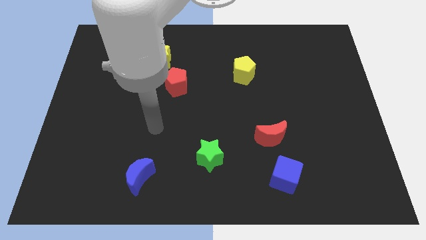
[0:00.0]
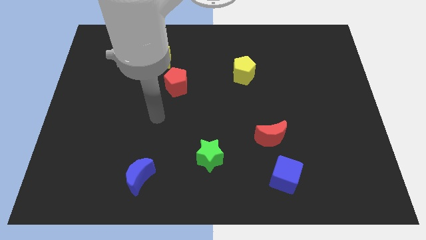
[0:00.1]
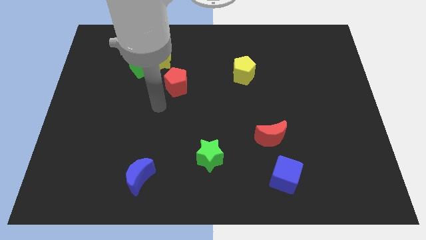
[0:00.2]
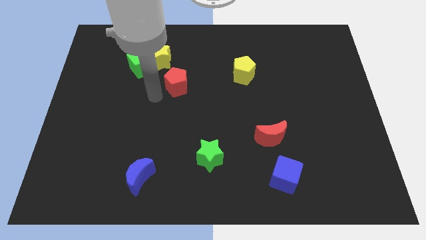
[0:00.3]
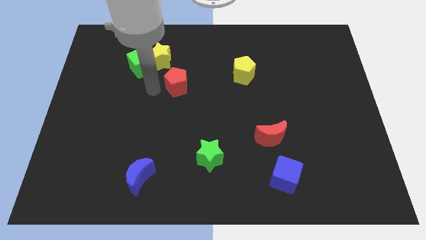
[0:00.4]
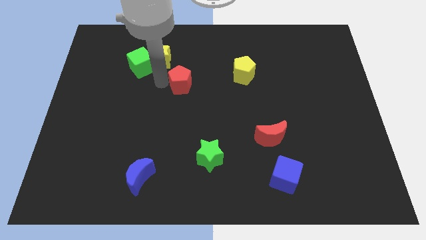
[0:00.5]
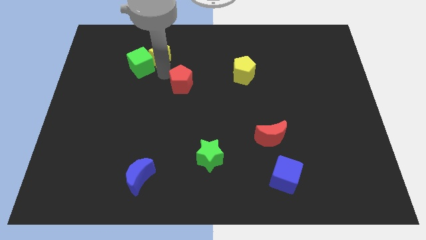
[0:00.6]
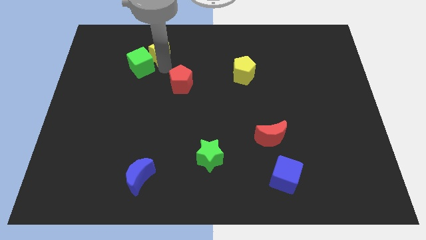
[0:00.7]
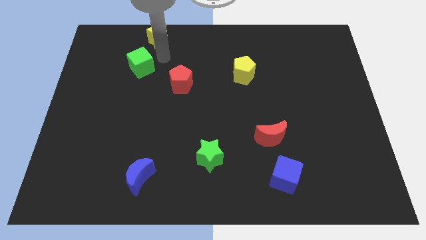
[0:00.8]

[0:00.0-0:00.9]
pull the green cube apart from the yellow star

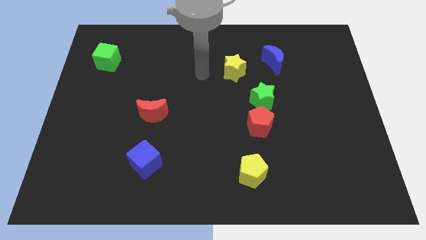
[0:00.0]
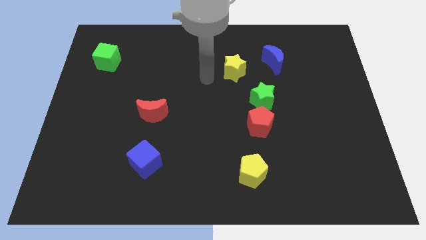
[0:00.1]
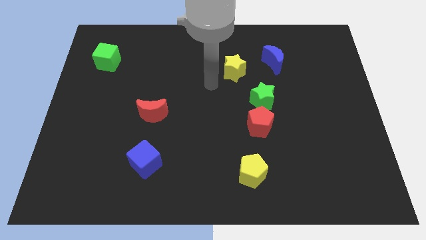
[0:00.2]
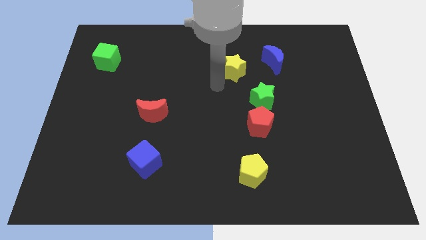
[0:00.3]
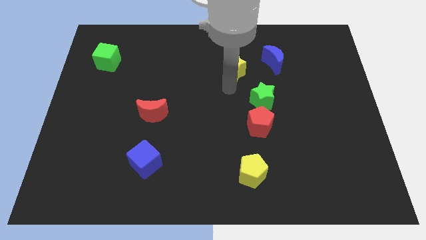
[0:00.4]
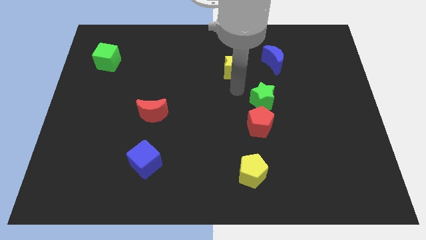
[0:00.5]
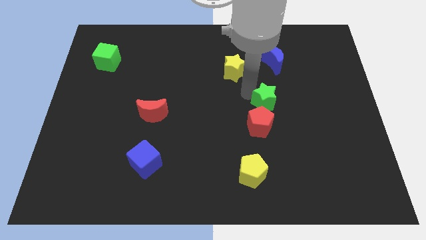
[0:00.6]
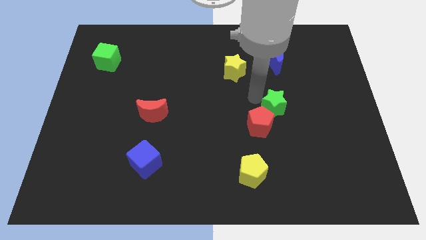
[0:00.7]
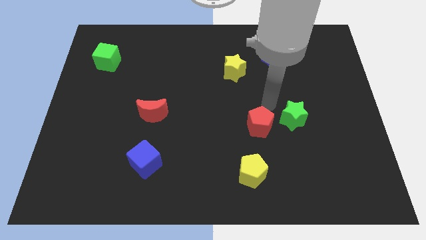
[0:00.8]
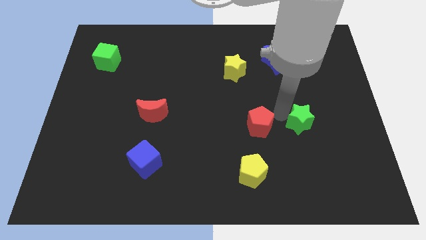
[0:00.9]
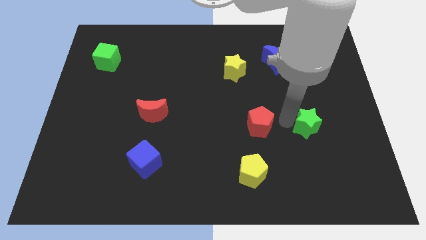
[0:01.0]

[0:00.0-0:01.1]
move the red pentagon away from the green star

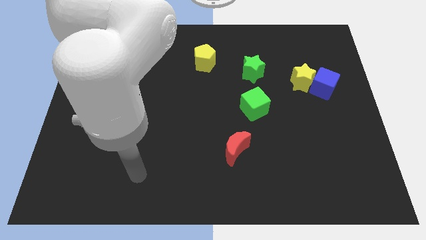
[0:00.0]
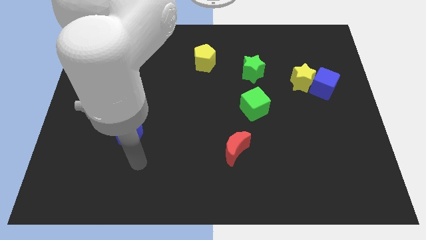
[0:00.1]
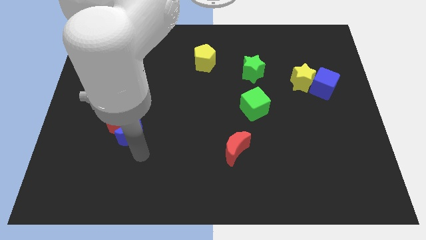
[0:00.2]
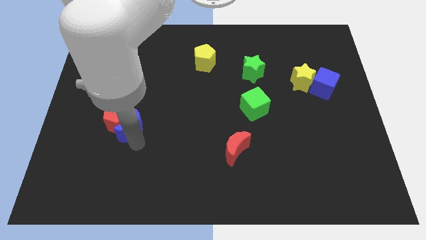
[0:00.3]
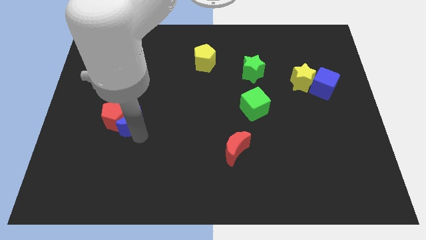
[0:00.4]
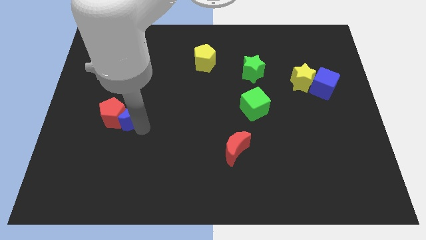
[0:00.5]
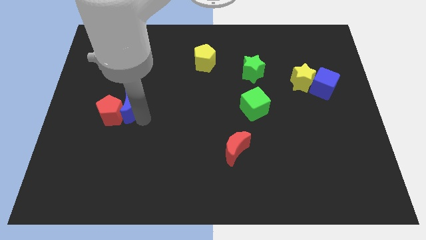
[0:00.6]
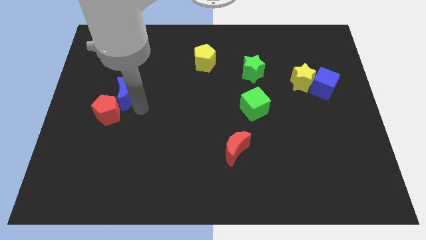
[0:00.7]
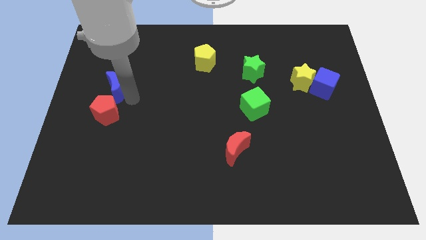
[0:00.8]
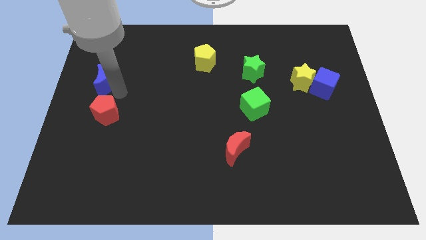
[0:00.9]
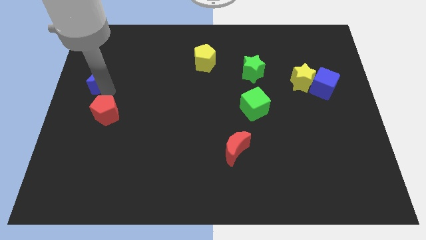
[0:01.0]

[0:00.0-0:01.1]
pull the red pentagon apart from the blue moon

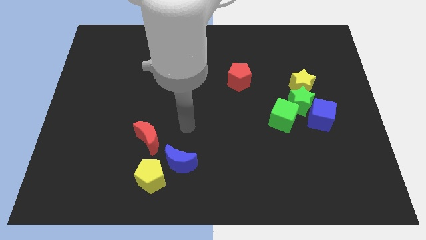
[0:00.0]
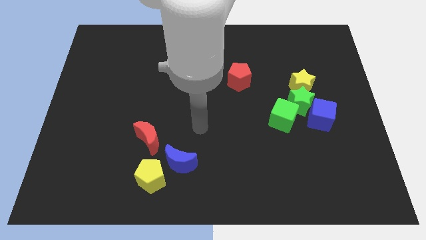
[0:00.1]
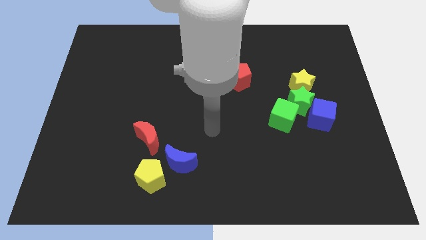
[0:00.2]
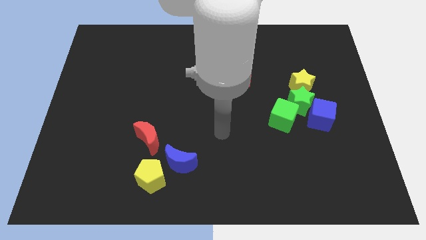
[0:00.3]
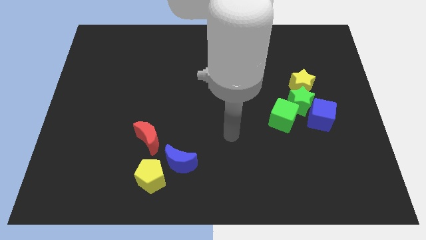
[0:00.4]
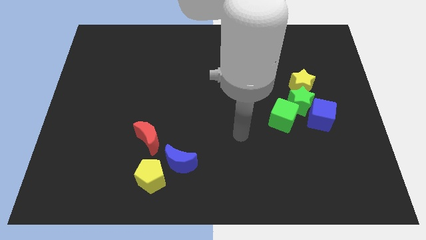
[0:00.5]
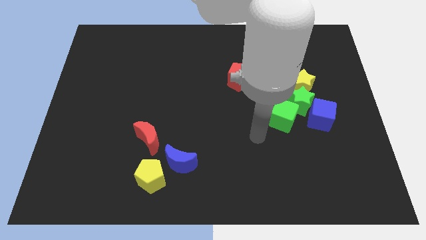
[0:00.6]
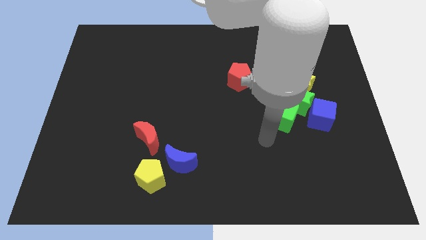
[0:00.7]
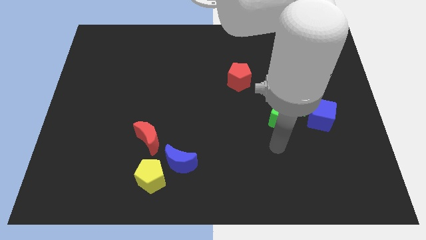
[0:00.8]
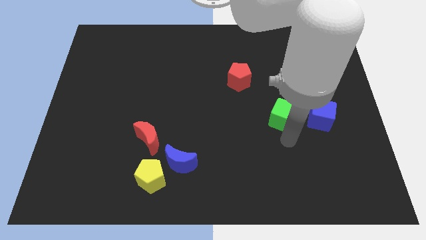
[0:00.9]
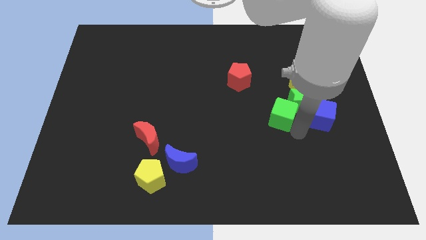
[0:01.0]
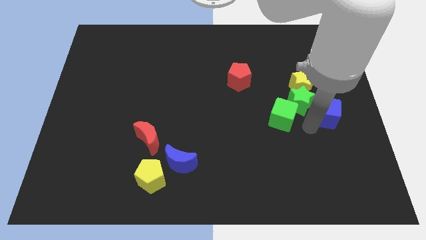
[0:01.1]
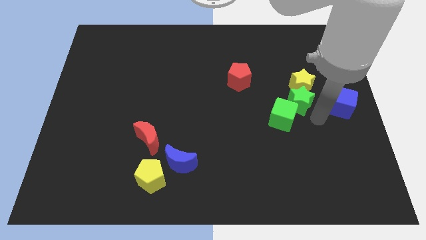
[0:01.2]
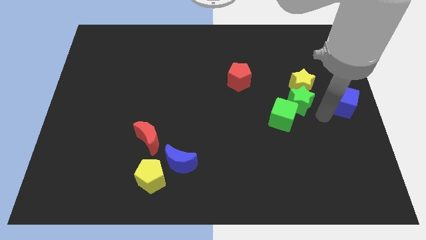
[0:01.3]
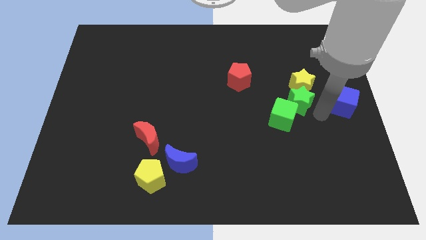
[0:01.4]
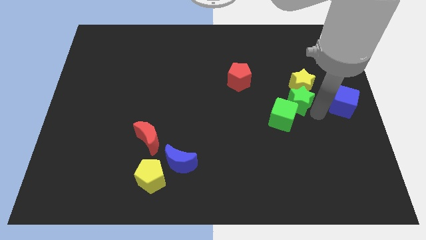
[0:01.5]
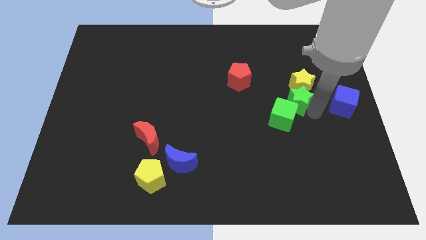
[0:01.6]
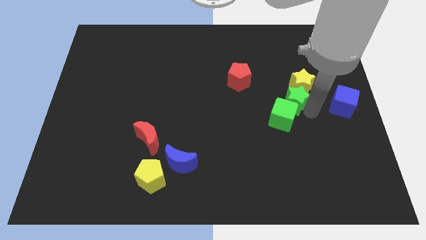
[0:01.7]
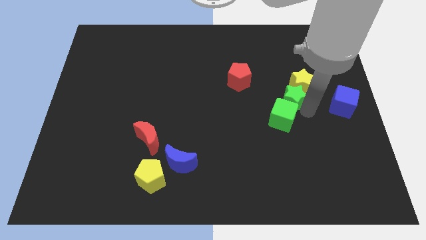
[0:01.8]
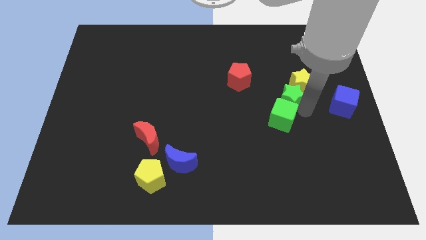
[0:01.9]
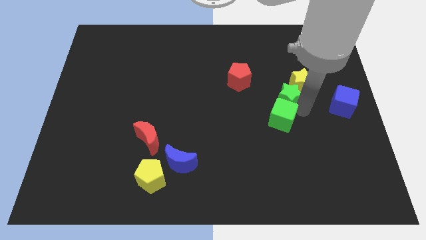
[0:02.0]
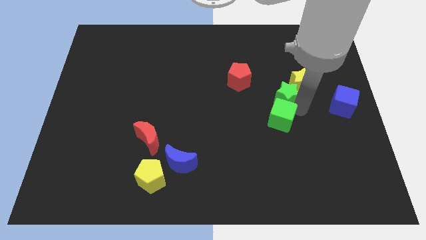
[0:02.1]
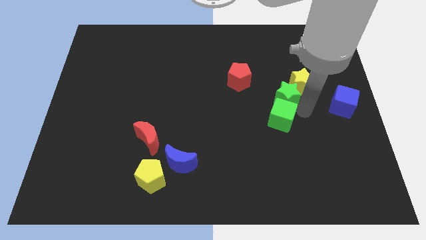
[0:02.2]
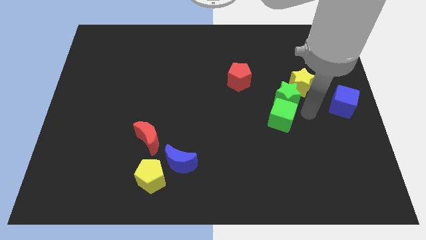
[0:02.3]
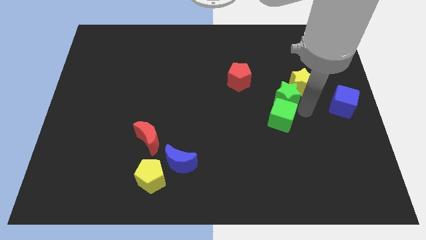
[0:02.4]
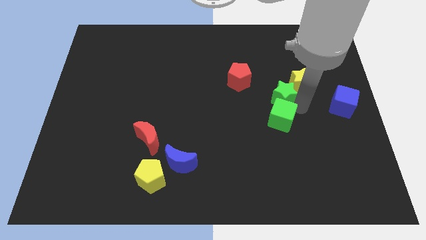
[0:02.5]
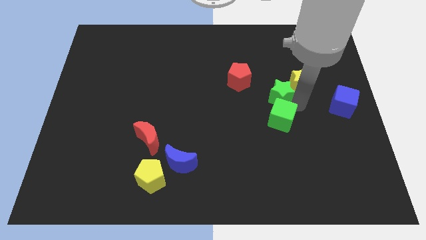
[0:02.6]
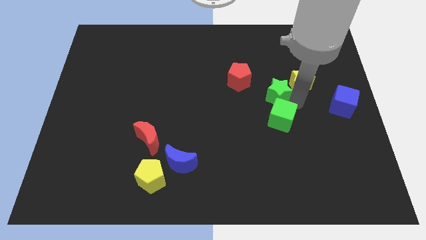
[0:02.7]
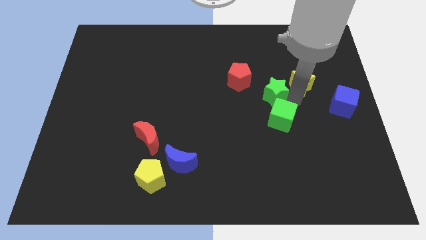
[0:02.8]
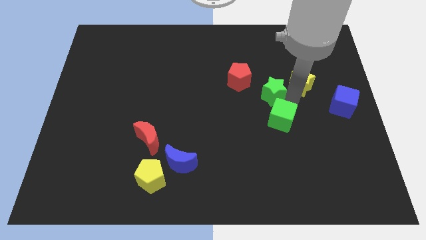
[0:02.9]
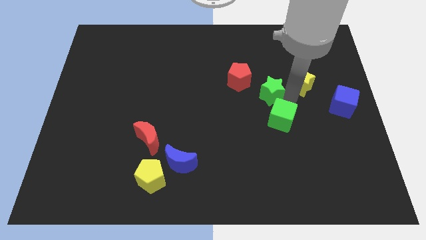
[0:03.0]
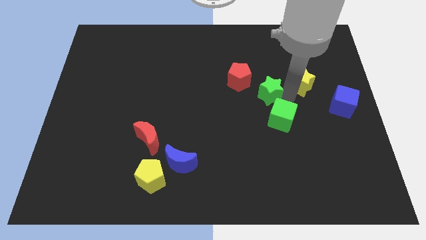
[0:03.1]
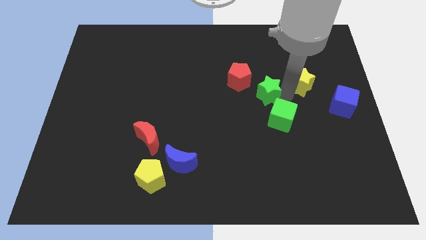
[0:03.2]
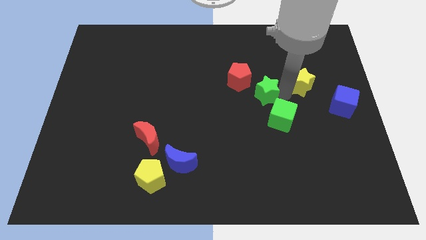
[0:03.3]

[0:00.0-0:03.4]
separate the green star from the yellow star, blue cube, and green cube

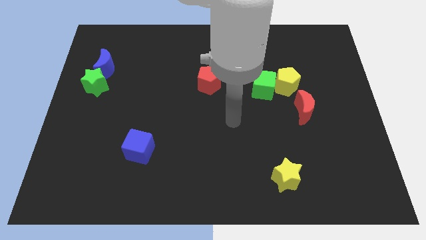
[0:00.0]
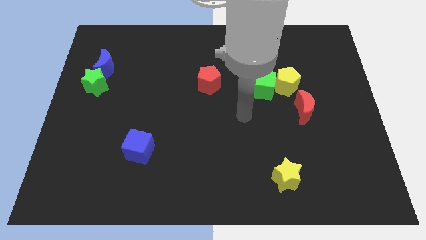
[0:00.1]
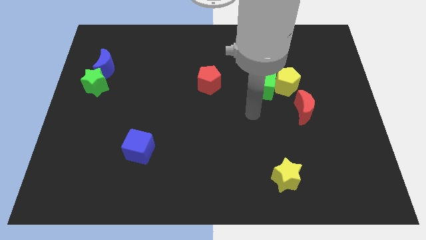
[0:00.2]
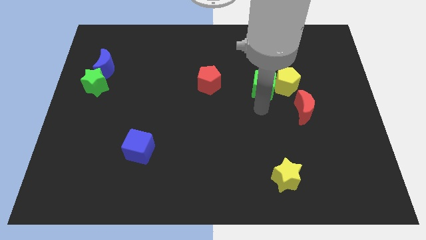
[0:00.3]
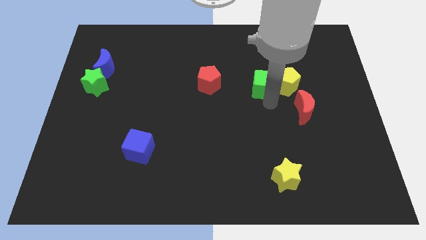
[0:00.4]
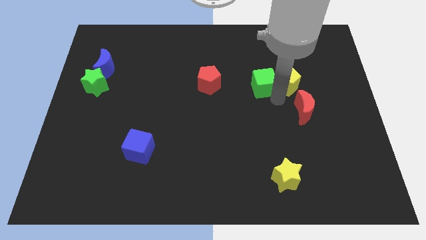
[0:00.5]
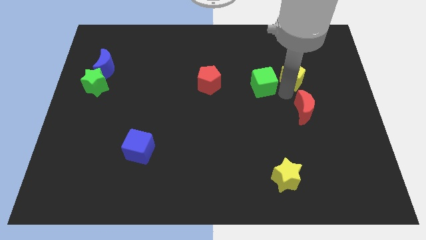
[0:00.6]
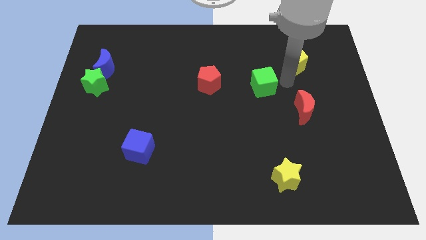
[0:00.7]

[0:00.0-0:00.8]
pull the green cube apart from the yellow pentagon

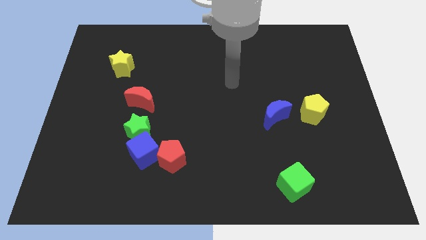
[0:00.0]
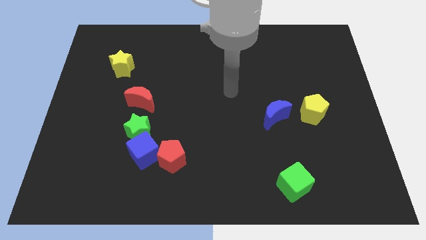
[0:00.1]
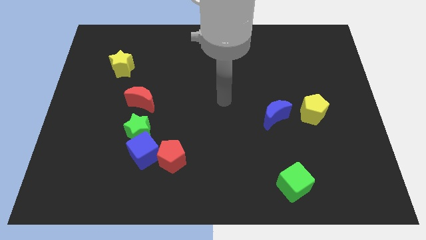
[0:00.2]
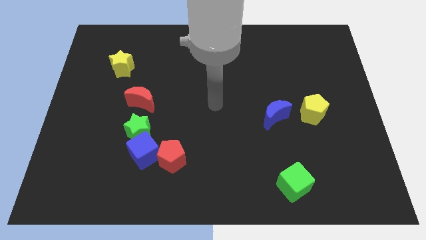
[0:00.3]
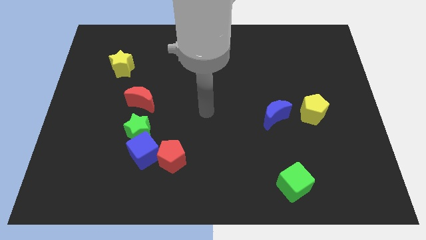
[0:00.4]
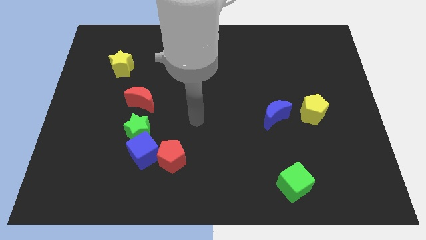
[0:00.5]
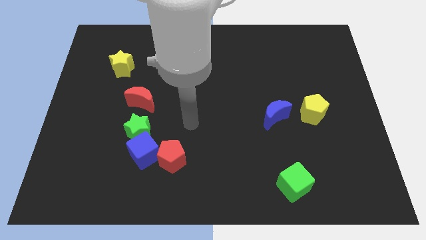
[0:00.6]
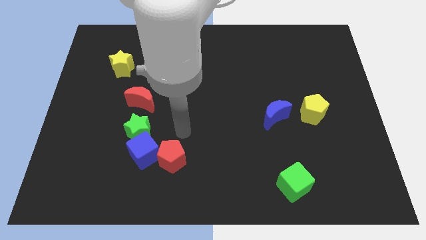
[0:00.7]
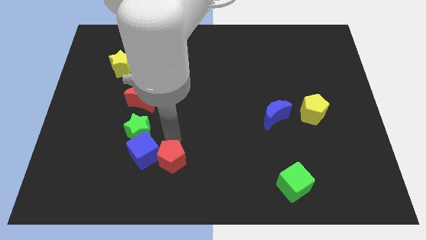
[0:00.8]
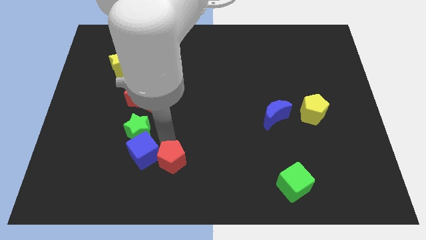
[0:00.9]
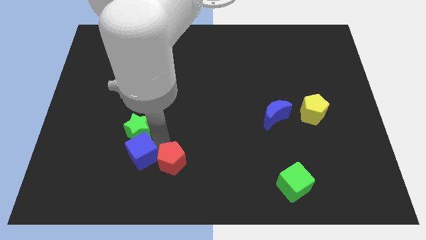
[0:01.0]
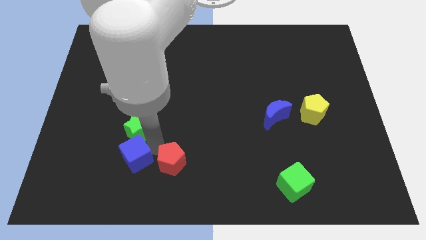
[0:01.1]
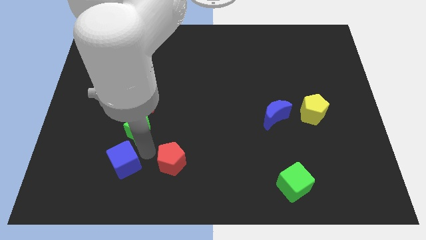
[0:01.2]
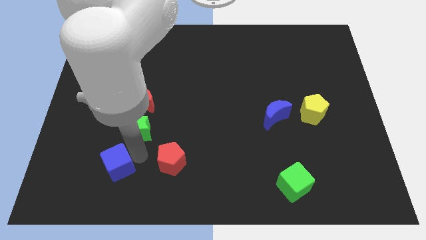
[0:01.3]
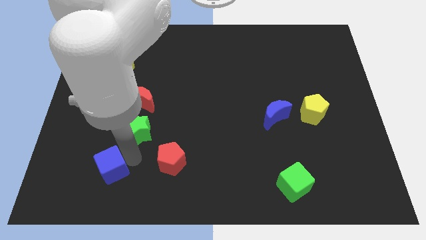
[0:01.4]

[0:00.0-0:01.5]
separate the blue cube from the green star and red pentagon

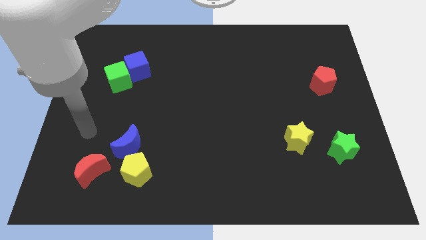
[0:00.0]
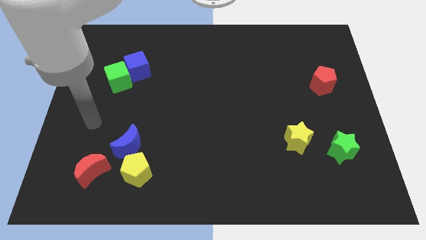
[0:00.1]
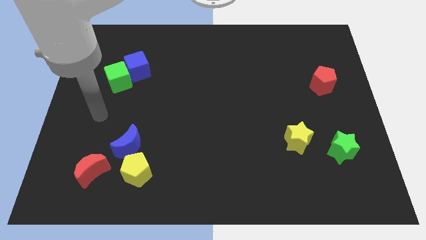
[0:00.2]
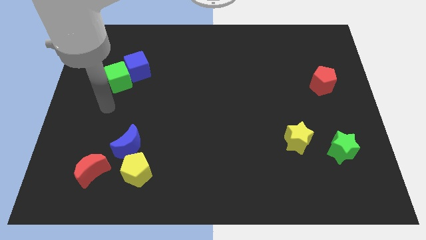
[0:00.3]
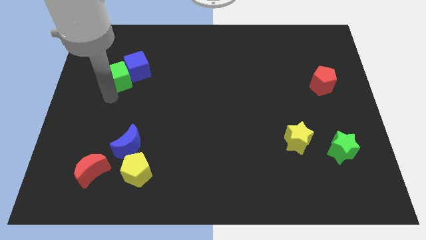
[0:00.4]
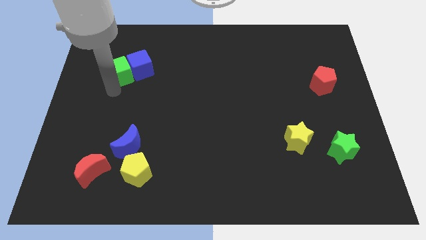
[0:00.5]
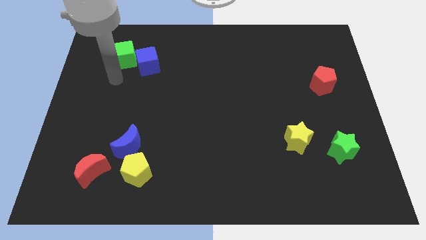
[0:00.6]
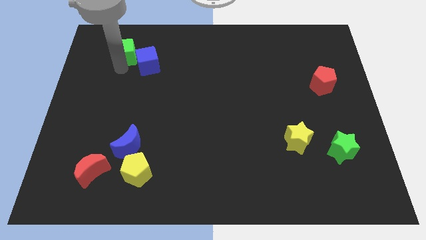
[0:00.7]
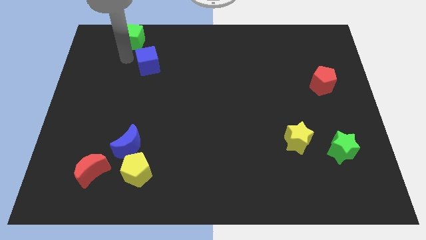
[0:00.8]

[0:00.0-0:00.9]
pull the blue cube apart from the green cube
